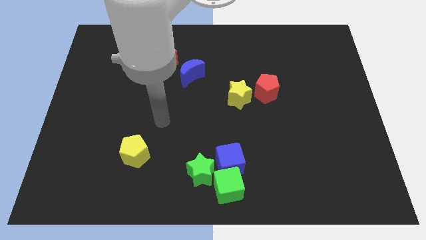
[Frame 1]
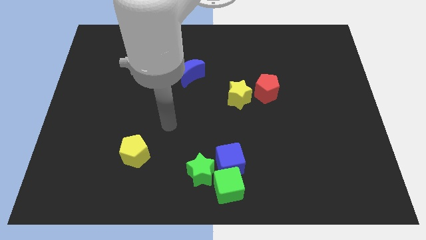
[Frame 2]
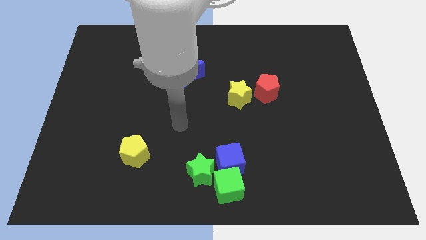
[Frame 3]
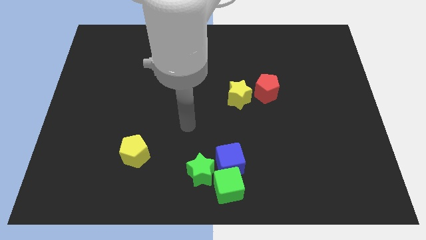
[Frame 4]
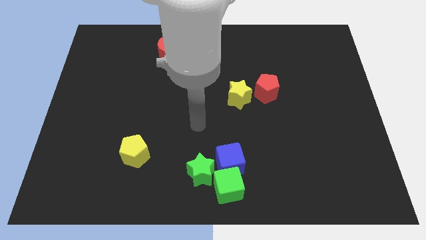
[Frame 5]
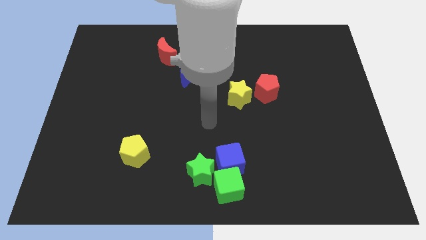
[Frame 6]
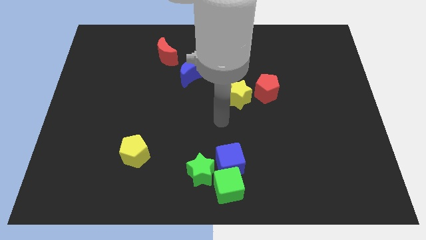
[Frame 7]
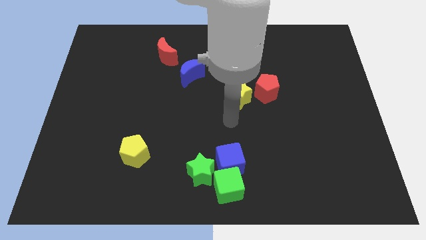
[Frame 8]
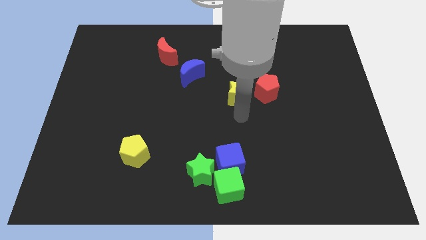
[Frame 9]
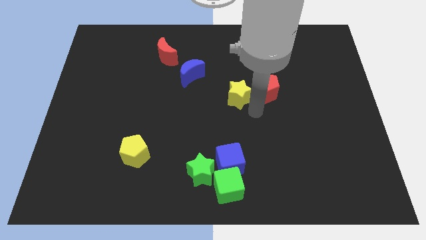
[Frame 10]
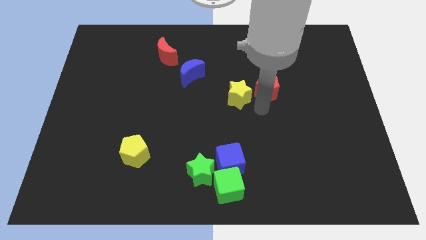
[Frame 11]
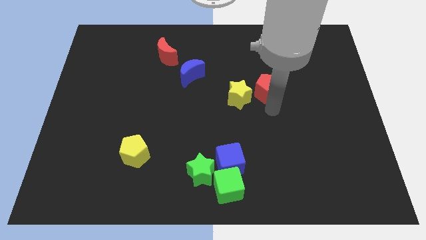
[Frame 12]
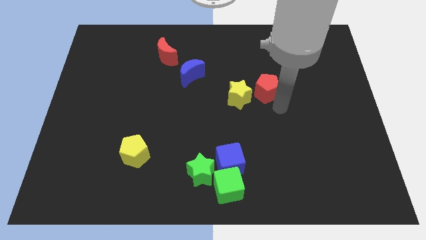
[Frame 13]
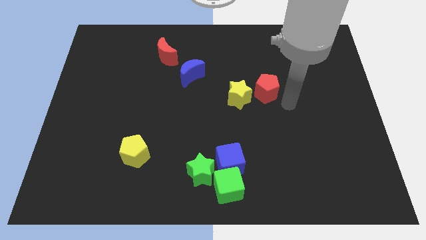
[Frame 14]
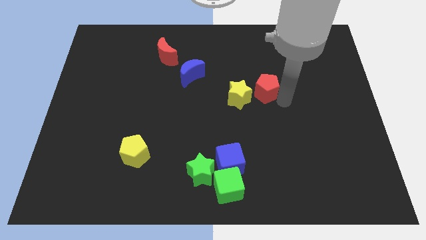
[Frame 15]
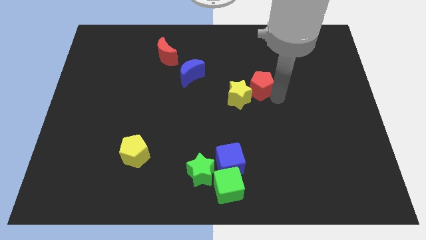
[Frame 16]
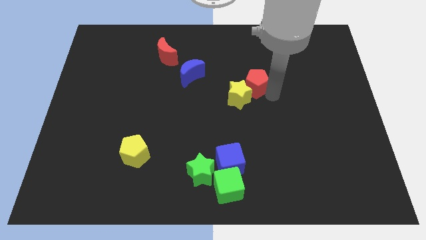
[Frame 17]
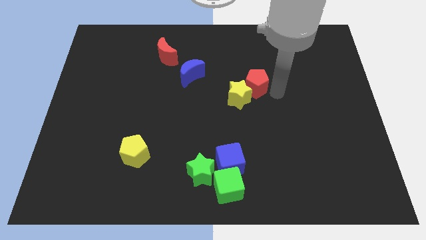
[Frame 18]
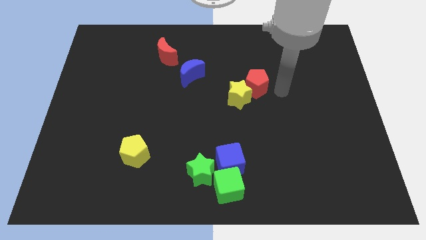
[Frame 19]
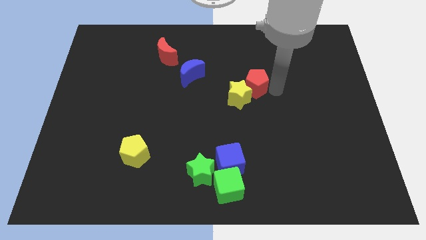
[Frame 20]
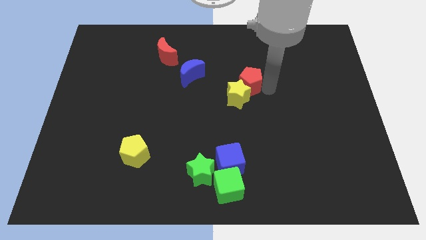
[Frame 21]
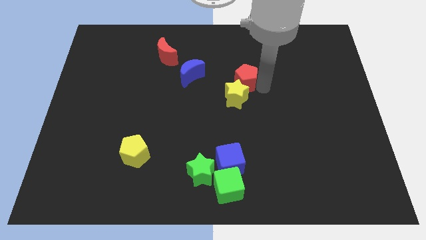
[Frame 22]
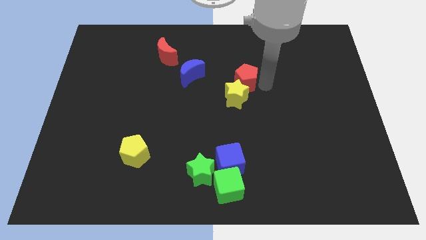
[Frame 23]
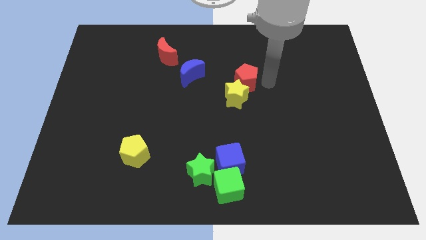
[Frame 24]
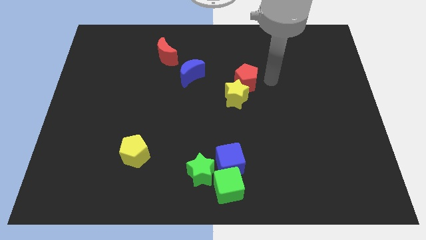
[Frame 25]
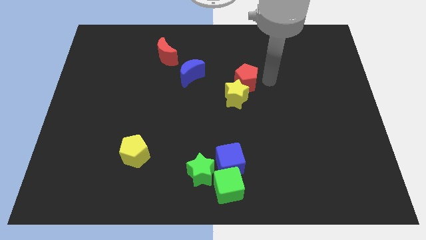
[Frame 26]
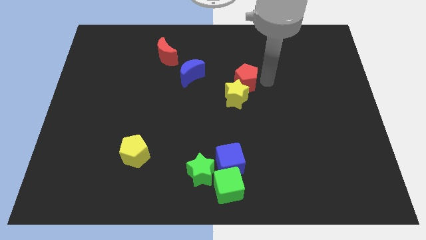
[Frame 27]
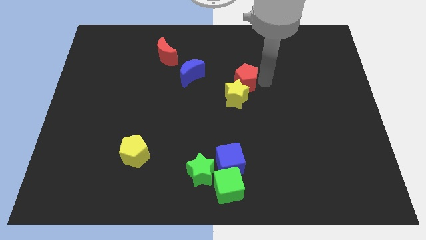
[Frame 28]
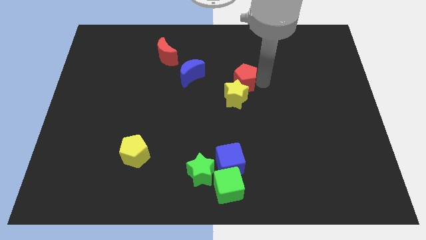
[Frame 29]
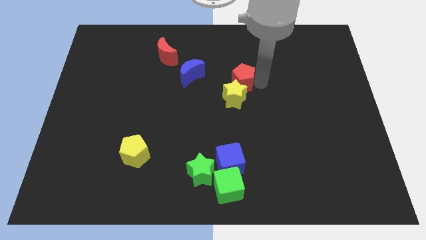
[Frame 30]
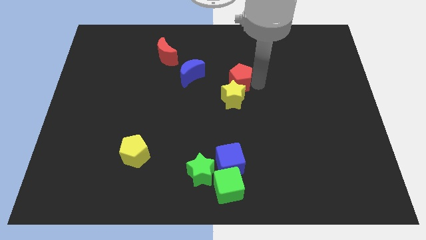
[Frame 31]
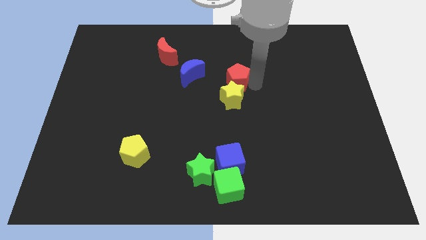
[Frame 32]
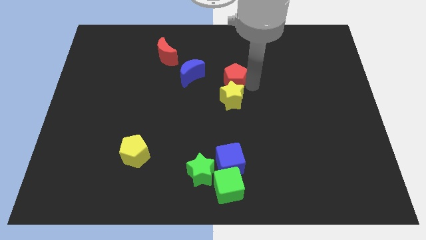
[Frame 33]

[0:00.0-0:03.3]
slightly move the red pentagon to the left

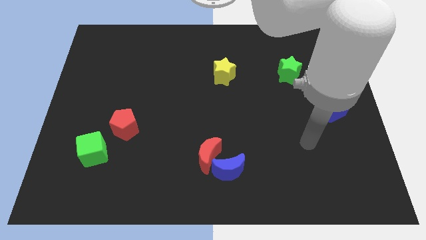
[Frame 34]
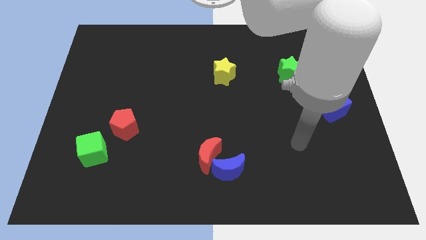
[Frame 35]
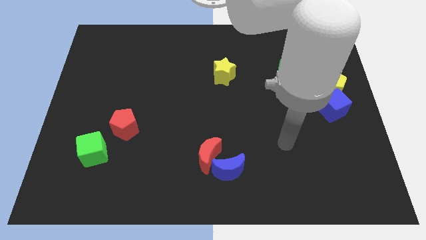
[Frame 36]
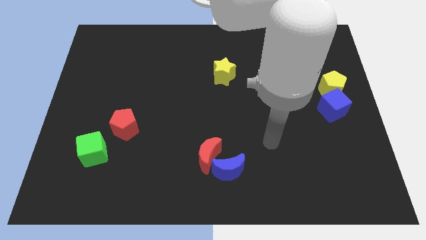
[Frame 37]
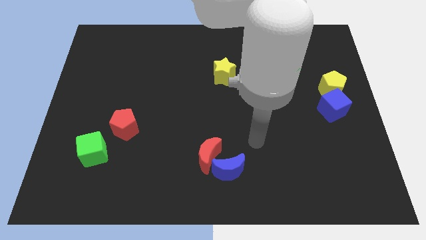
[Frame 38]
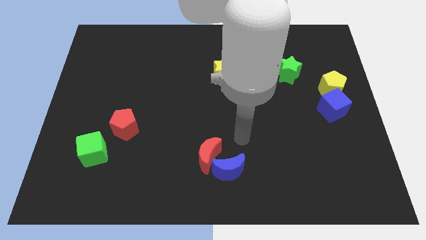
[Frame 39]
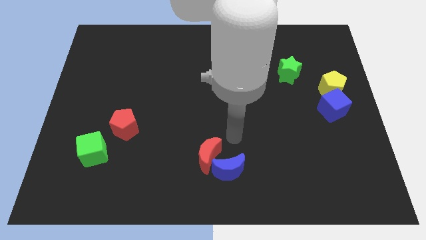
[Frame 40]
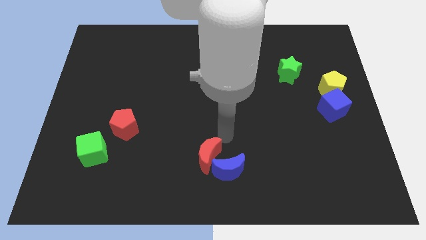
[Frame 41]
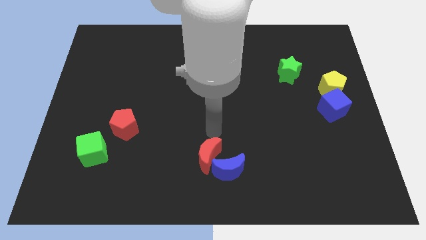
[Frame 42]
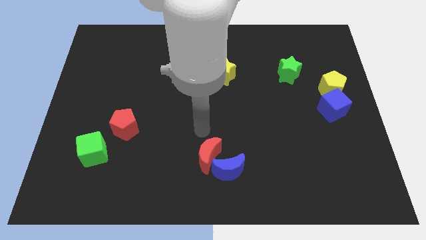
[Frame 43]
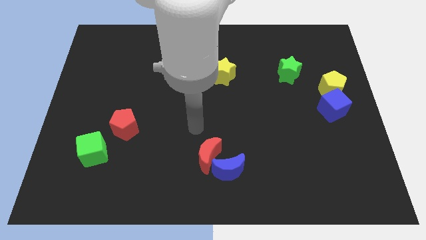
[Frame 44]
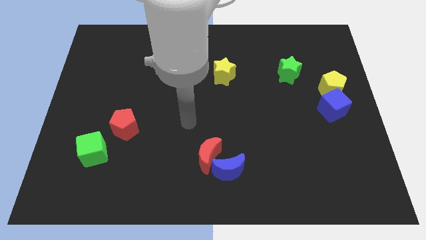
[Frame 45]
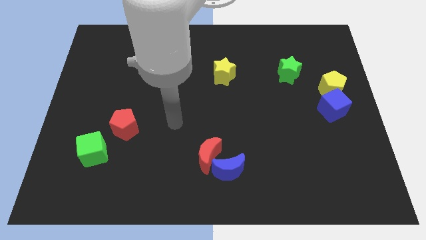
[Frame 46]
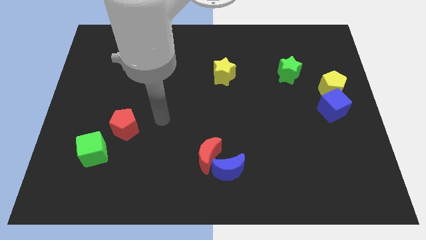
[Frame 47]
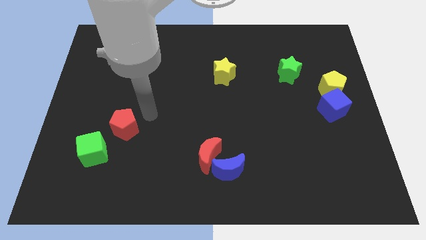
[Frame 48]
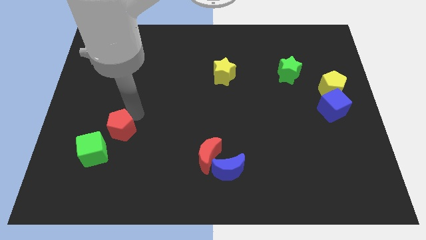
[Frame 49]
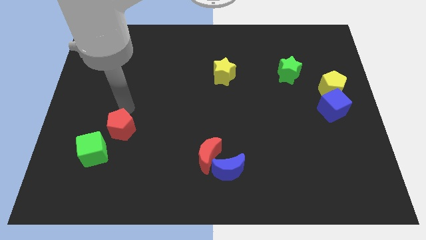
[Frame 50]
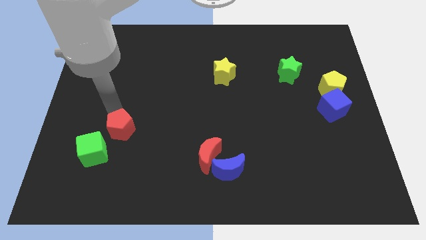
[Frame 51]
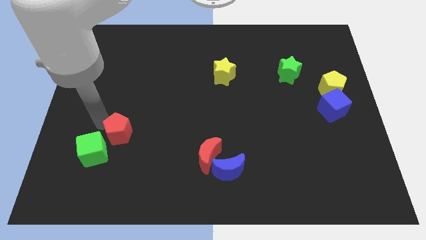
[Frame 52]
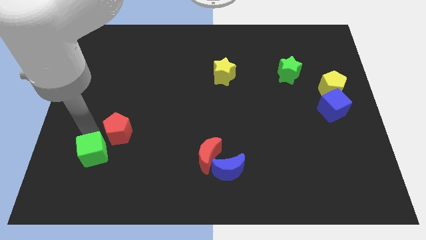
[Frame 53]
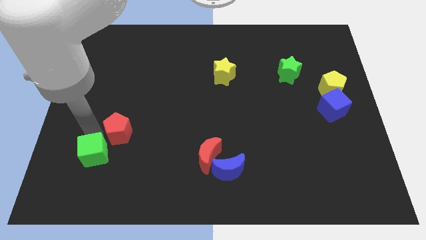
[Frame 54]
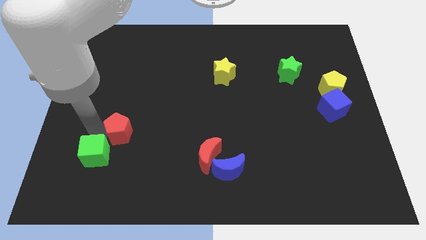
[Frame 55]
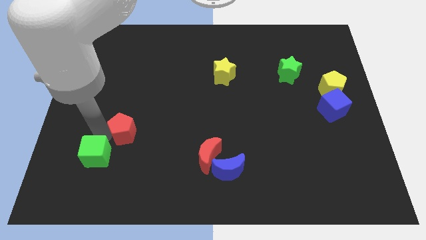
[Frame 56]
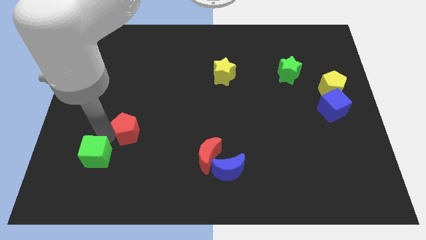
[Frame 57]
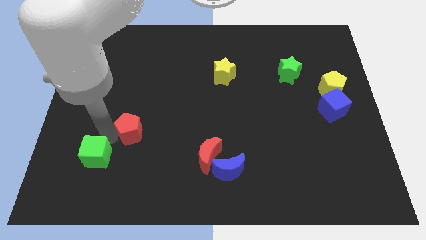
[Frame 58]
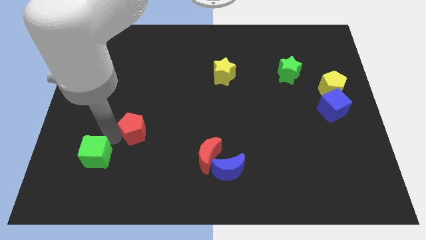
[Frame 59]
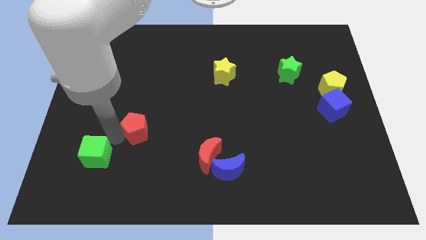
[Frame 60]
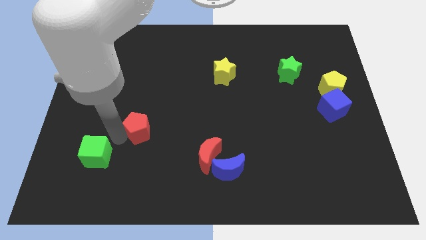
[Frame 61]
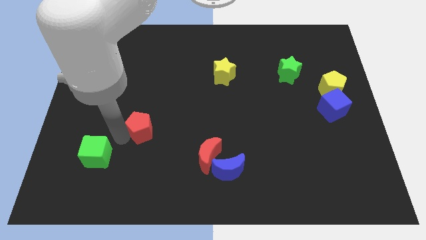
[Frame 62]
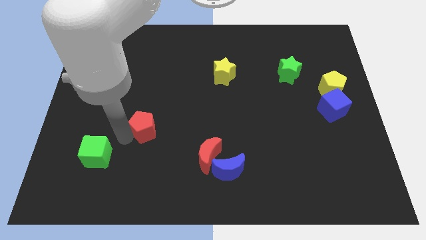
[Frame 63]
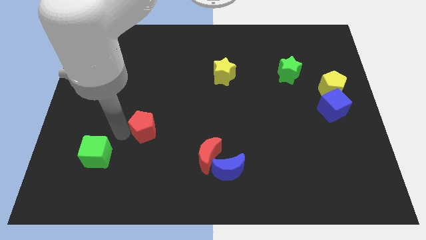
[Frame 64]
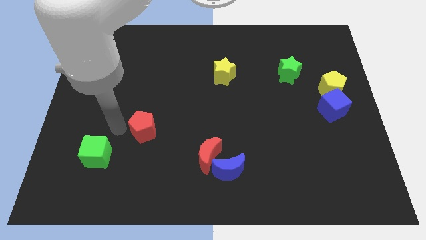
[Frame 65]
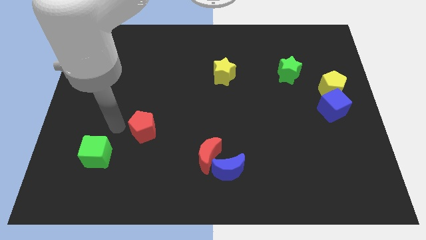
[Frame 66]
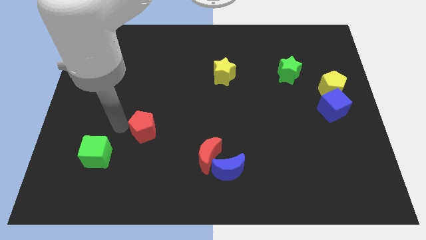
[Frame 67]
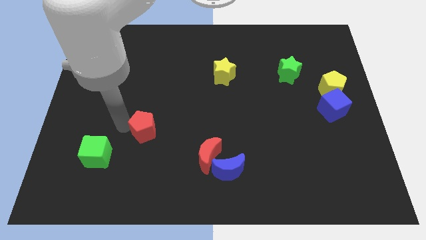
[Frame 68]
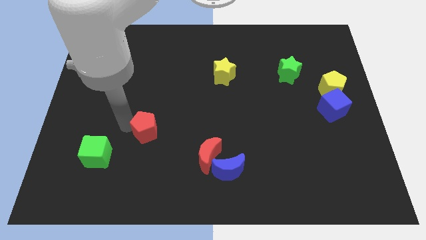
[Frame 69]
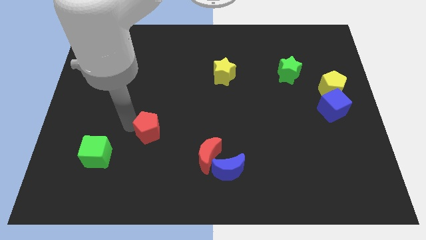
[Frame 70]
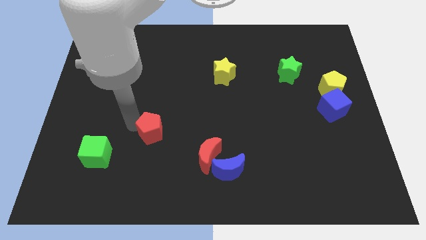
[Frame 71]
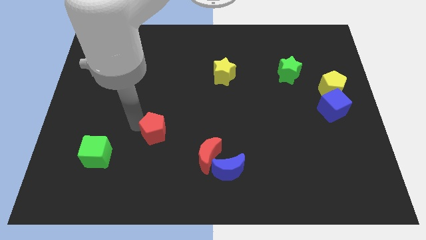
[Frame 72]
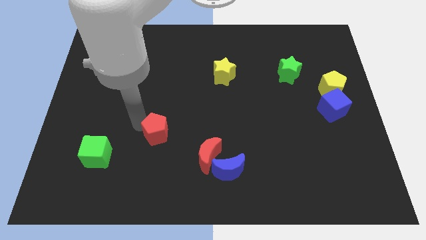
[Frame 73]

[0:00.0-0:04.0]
slightly push the red pentagon right

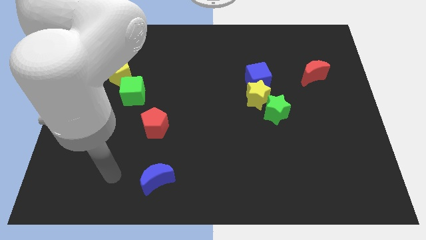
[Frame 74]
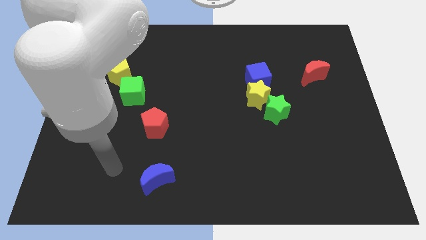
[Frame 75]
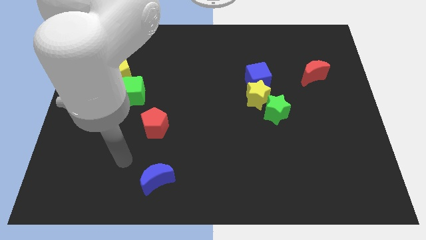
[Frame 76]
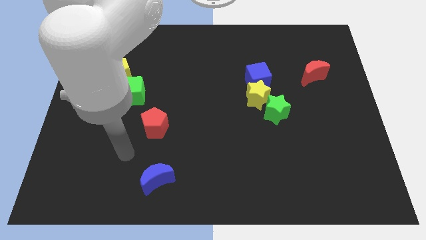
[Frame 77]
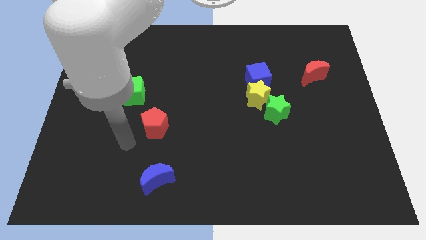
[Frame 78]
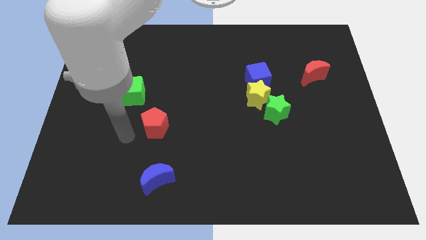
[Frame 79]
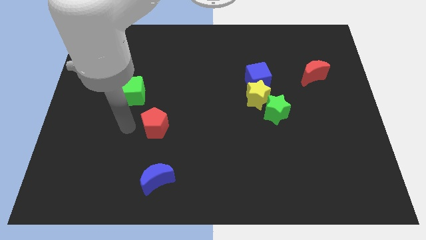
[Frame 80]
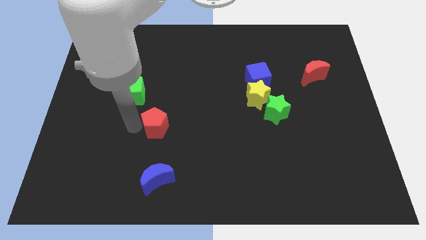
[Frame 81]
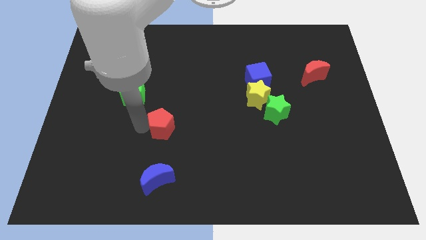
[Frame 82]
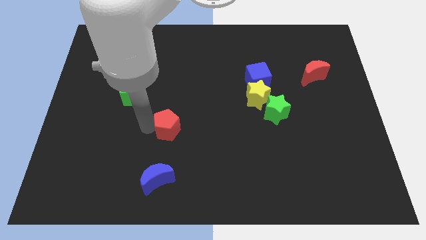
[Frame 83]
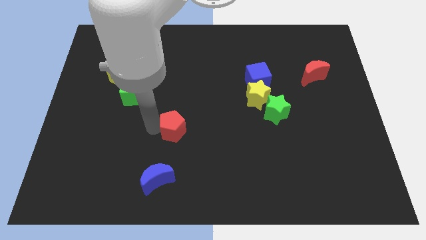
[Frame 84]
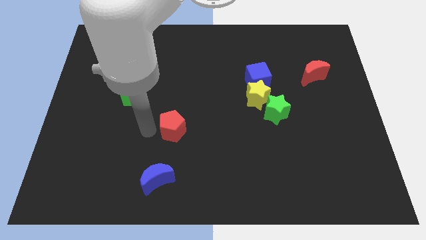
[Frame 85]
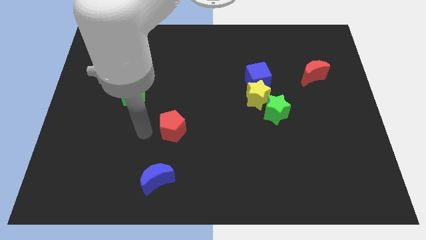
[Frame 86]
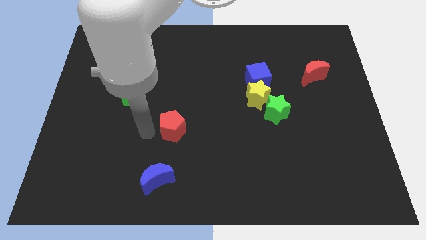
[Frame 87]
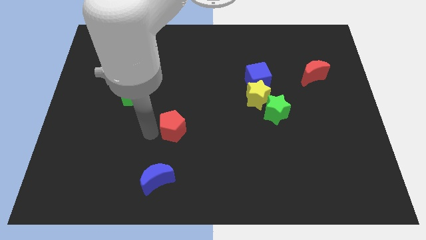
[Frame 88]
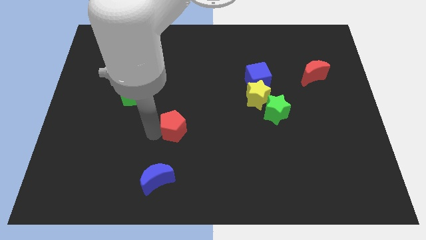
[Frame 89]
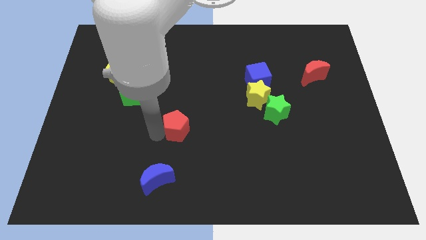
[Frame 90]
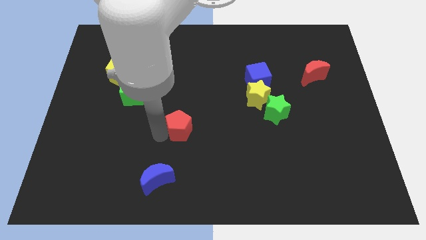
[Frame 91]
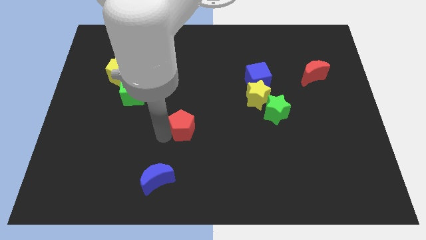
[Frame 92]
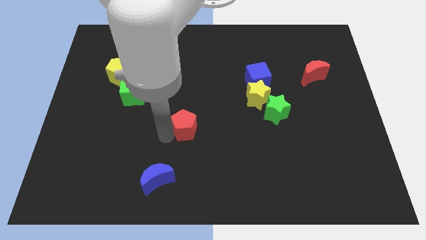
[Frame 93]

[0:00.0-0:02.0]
push the red pentagon slightly right
